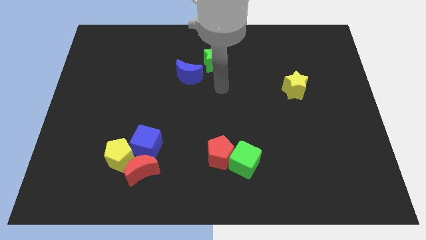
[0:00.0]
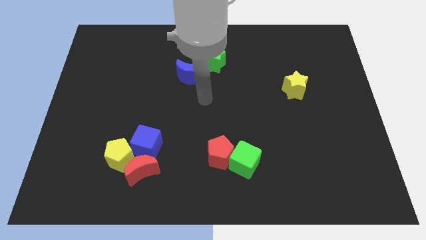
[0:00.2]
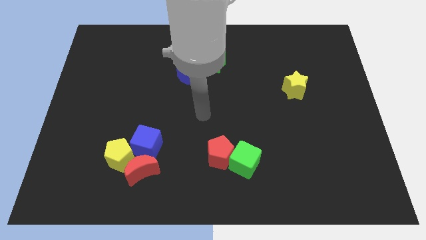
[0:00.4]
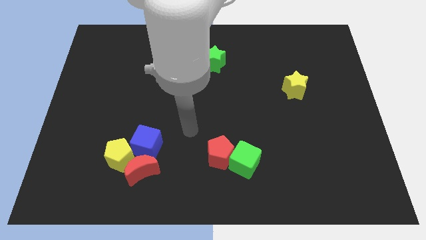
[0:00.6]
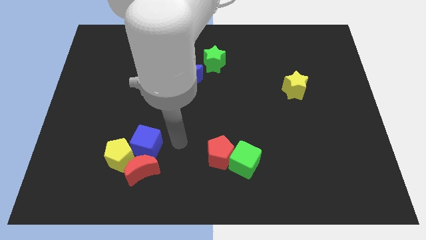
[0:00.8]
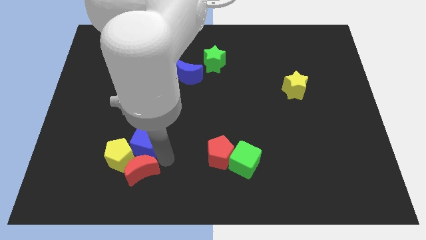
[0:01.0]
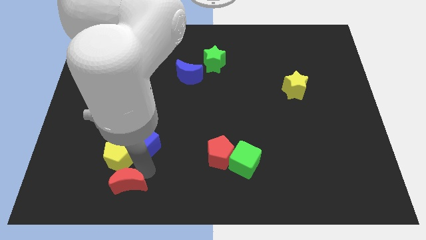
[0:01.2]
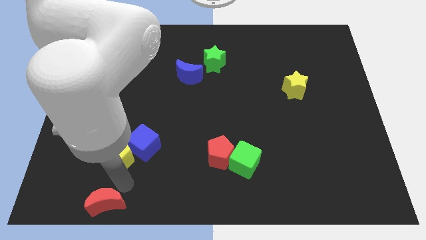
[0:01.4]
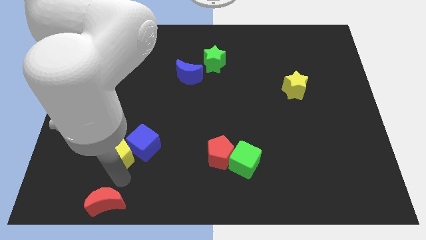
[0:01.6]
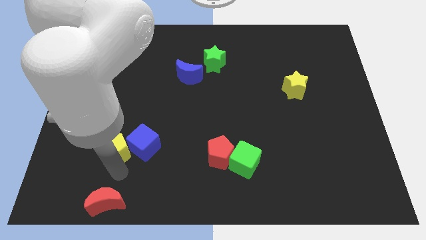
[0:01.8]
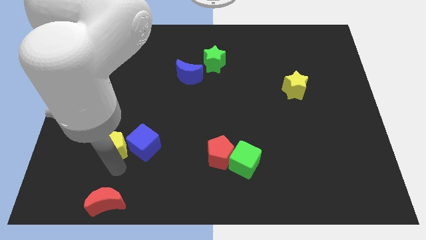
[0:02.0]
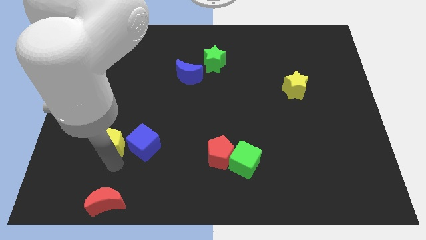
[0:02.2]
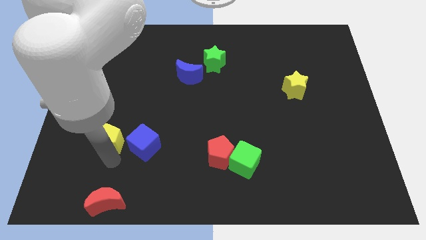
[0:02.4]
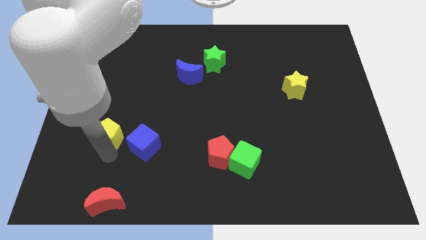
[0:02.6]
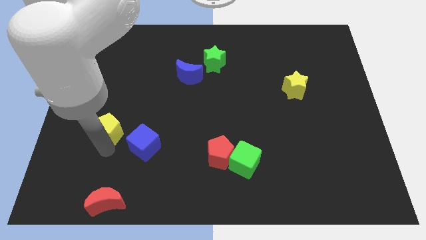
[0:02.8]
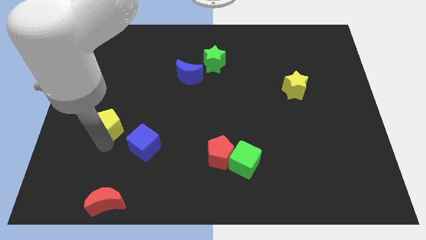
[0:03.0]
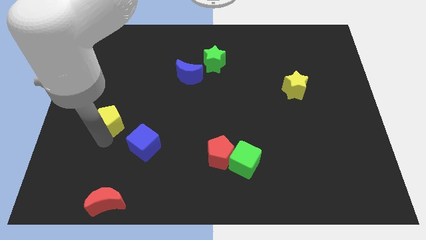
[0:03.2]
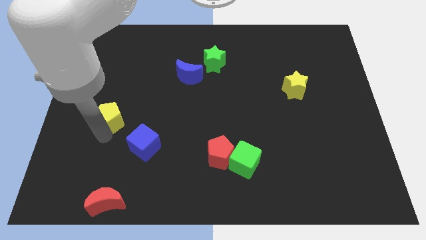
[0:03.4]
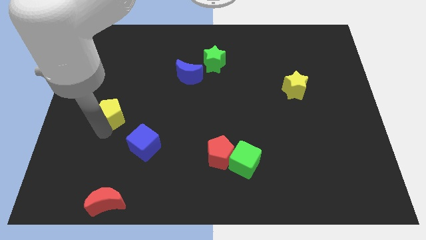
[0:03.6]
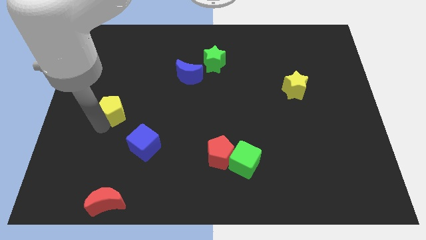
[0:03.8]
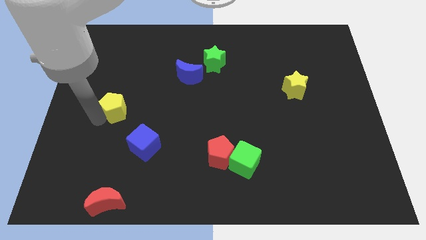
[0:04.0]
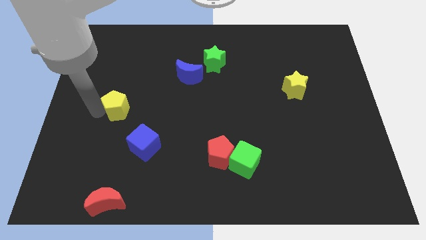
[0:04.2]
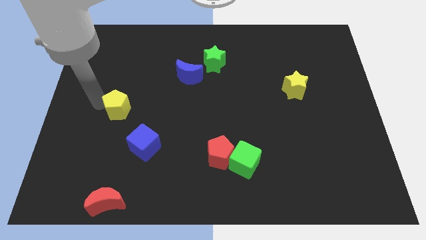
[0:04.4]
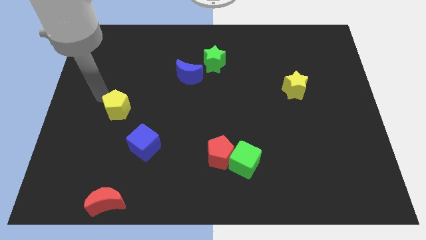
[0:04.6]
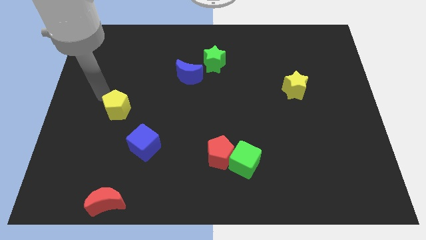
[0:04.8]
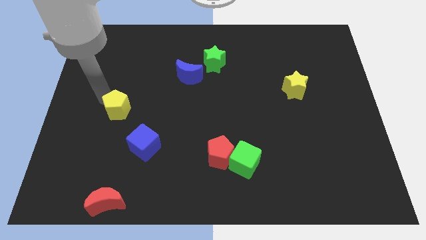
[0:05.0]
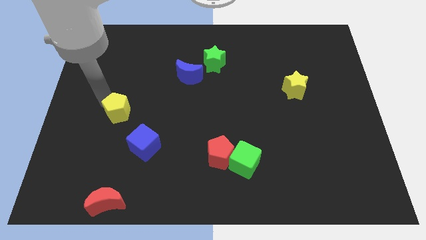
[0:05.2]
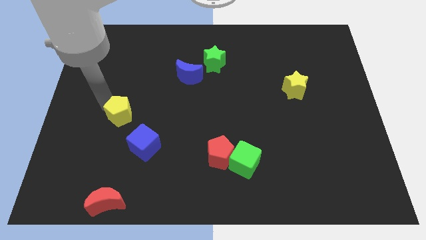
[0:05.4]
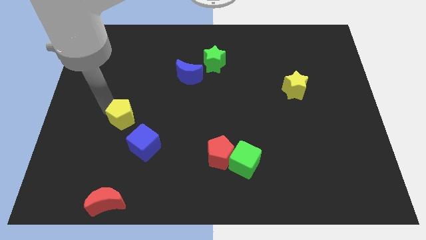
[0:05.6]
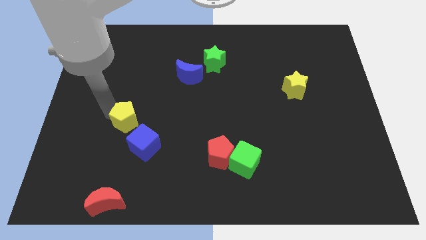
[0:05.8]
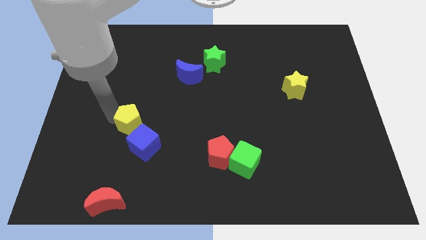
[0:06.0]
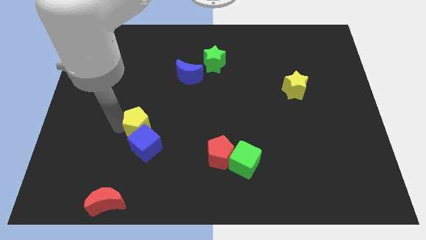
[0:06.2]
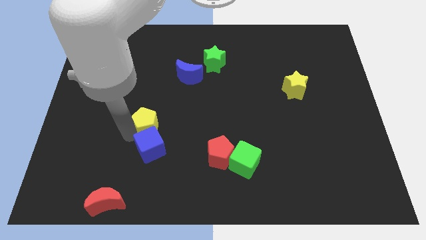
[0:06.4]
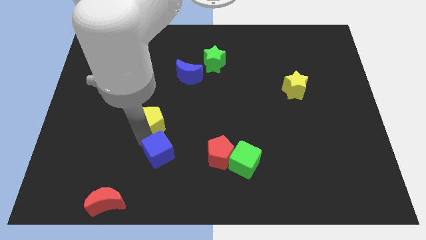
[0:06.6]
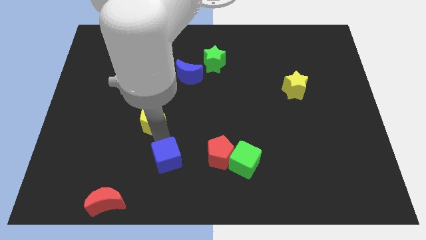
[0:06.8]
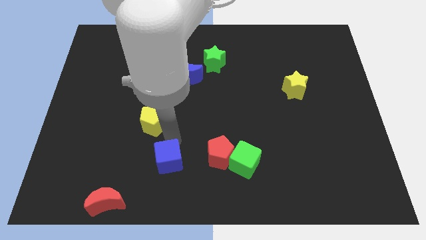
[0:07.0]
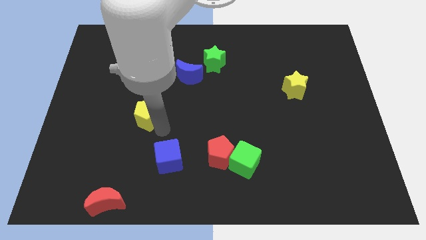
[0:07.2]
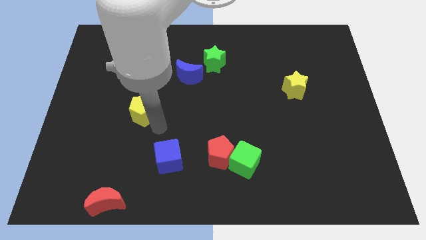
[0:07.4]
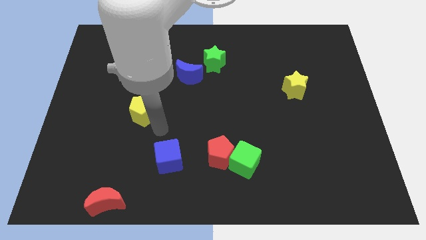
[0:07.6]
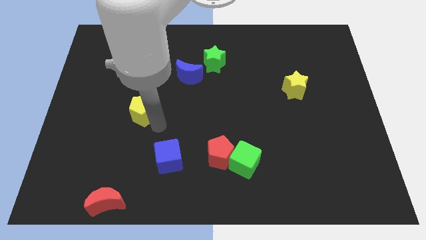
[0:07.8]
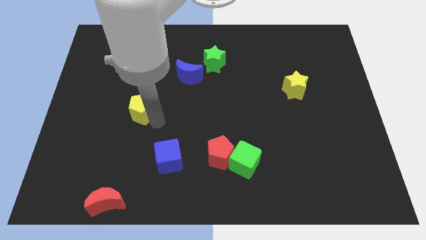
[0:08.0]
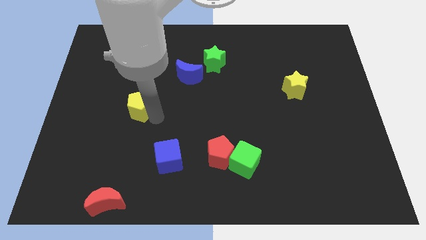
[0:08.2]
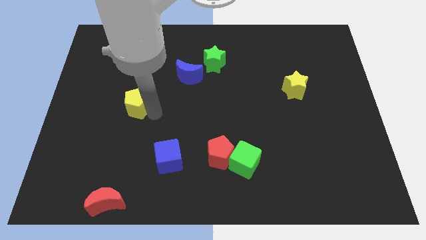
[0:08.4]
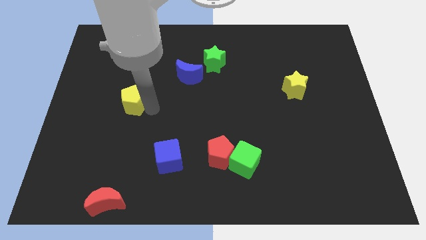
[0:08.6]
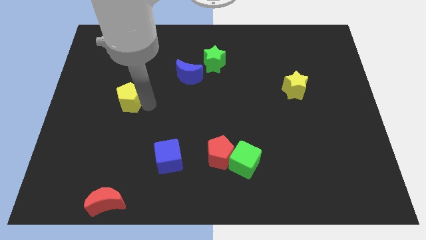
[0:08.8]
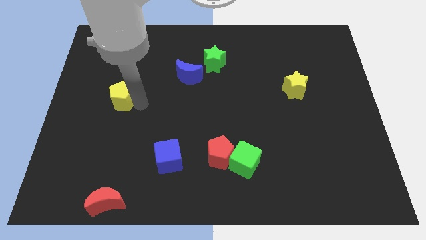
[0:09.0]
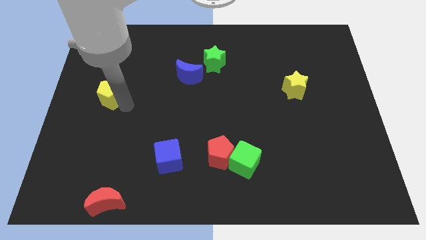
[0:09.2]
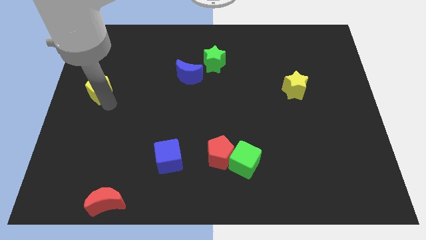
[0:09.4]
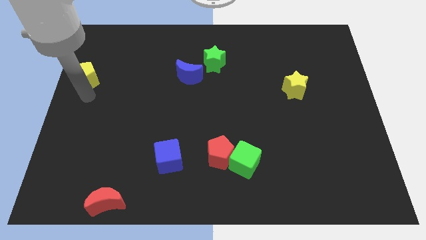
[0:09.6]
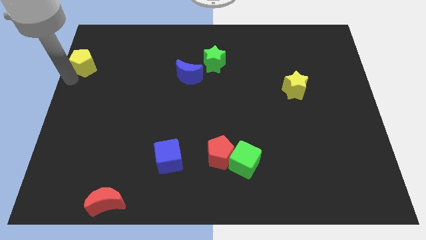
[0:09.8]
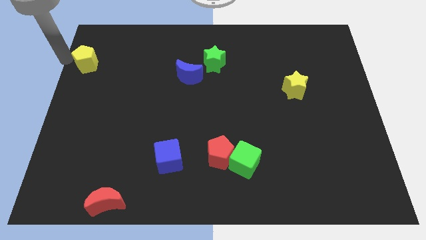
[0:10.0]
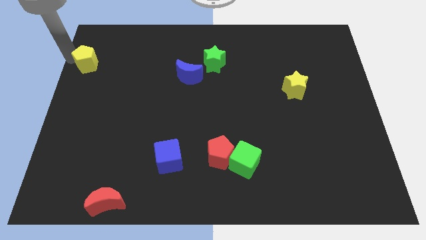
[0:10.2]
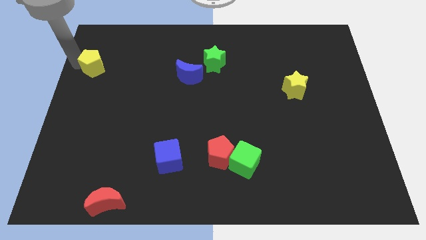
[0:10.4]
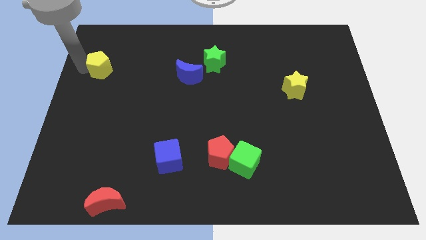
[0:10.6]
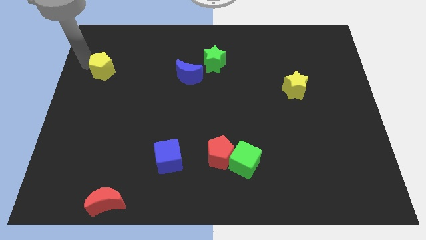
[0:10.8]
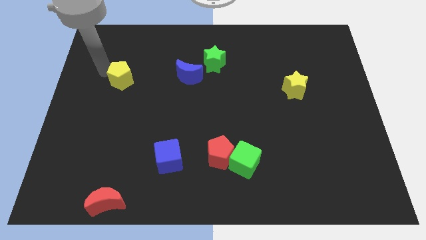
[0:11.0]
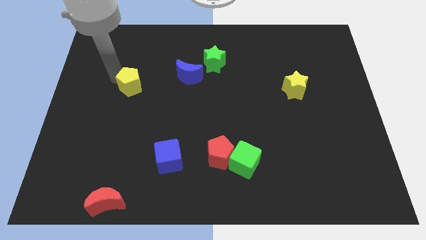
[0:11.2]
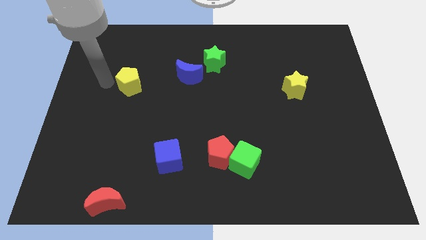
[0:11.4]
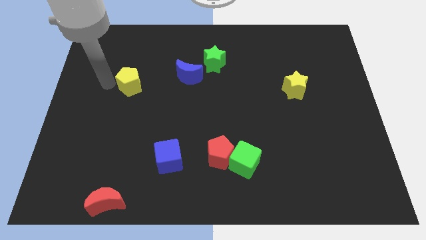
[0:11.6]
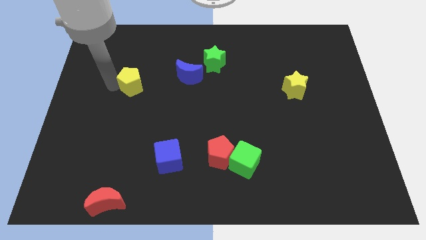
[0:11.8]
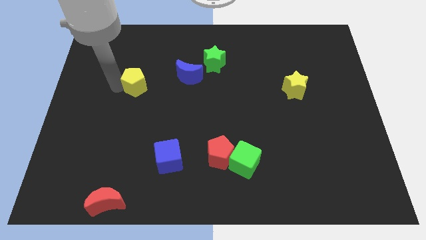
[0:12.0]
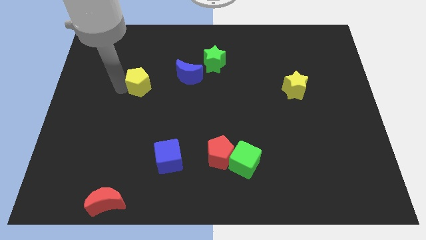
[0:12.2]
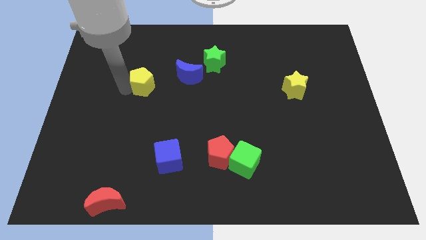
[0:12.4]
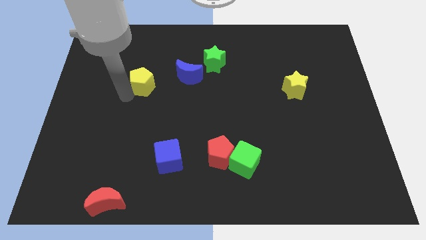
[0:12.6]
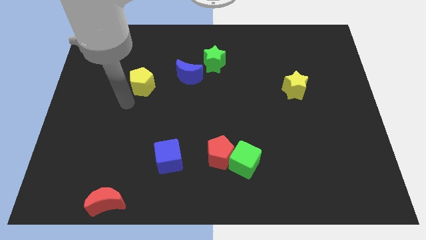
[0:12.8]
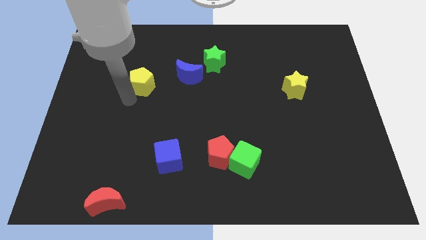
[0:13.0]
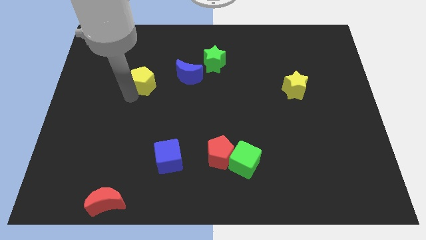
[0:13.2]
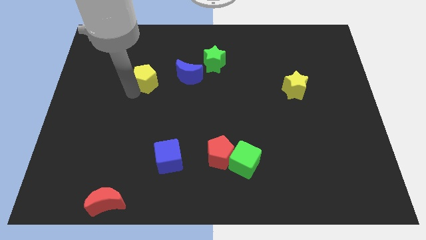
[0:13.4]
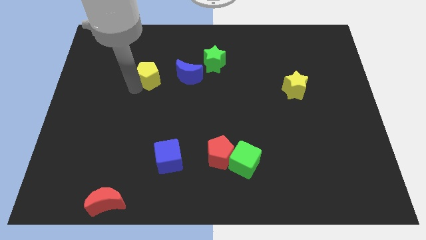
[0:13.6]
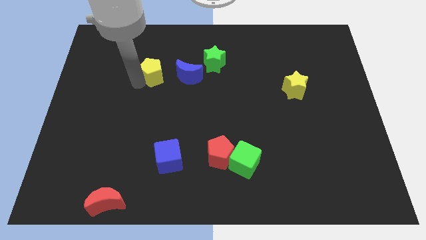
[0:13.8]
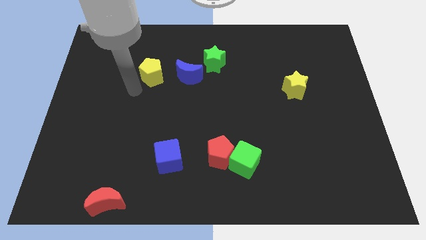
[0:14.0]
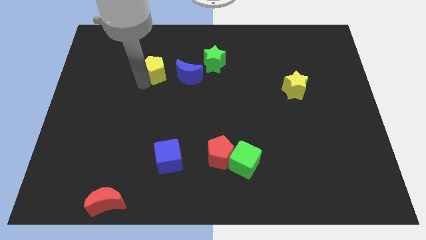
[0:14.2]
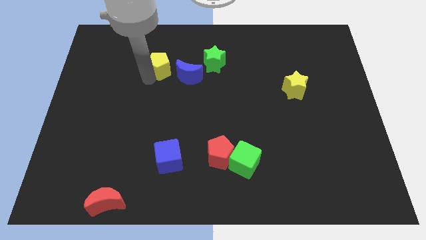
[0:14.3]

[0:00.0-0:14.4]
move the yellow pentagon to the top left of the blue moon
